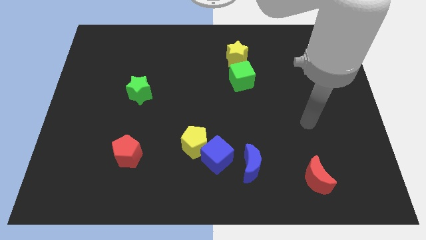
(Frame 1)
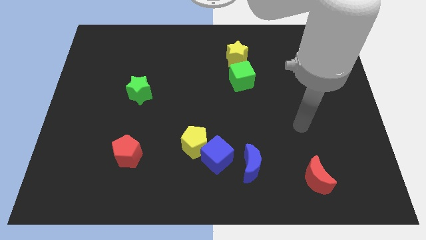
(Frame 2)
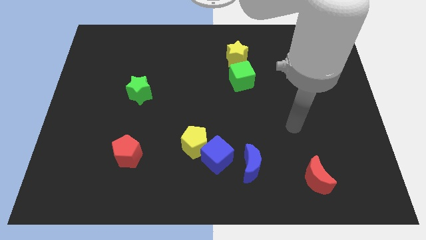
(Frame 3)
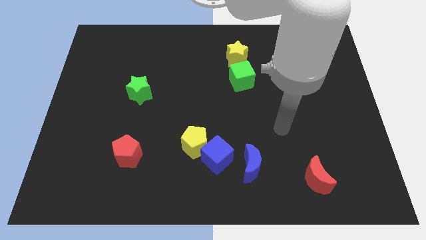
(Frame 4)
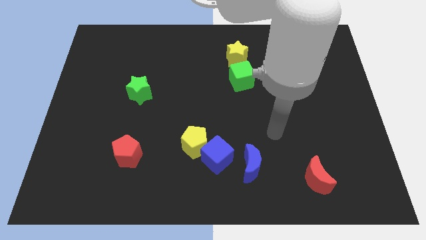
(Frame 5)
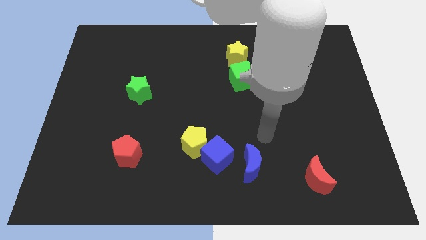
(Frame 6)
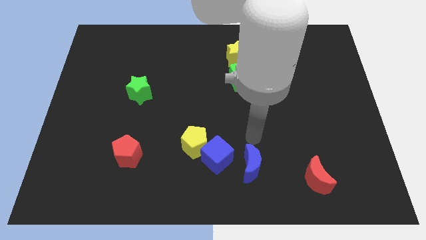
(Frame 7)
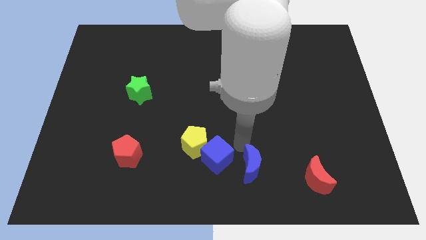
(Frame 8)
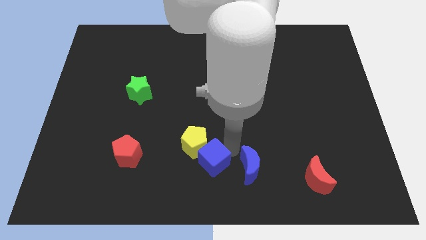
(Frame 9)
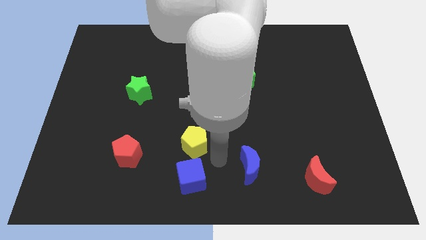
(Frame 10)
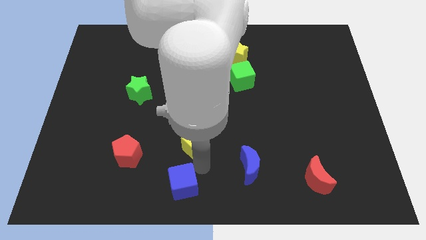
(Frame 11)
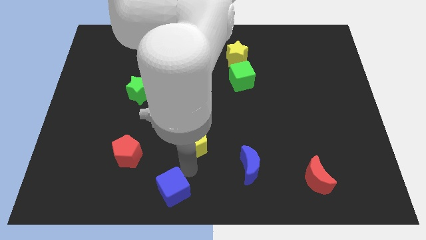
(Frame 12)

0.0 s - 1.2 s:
move the yellow pentagon away from the blue cube

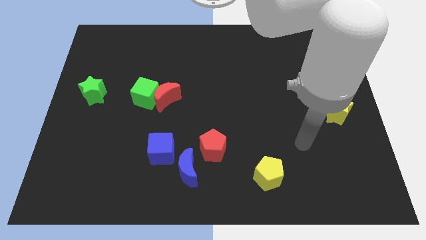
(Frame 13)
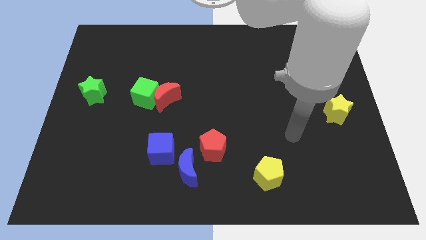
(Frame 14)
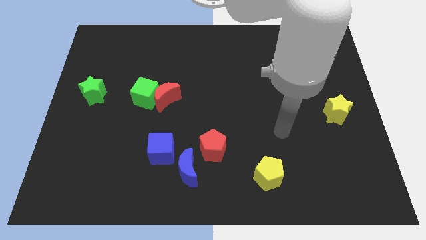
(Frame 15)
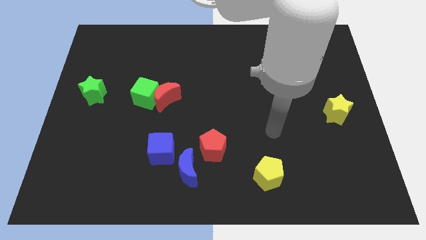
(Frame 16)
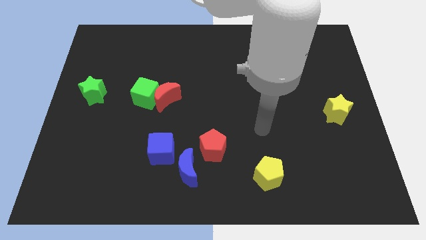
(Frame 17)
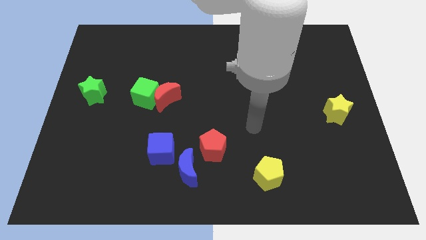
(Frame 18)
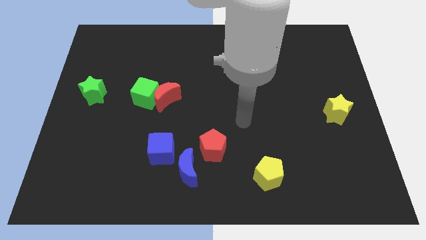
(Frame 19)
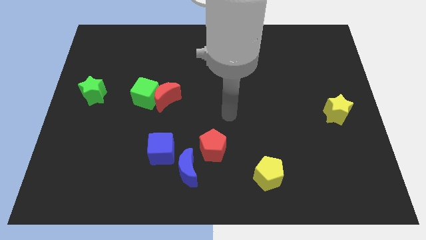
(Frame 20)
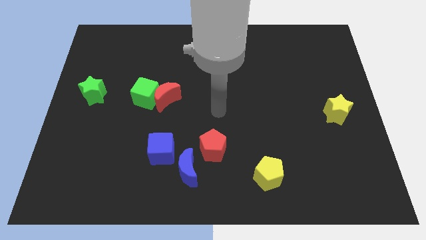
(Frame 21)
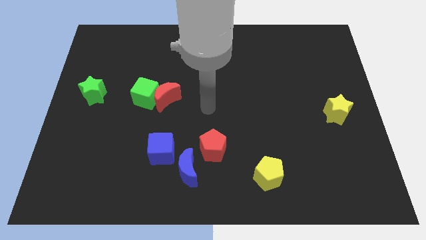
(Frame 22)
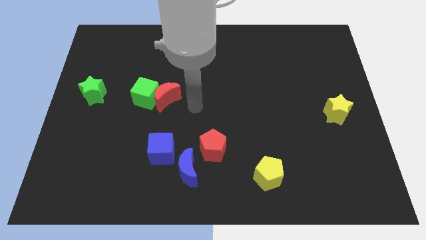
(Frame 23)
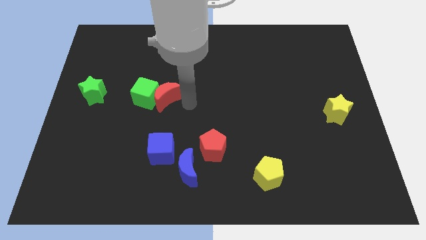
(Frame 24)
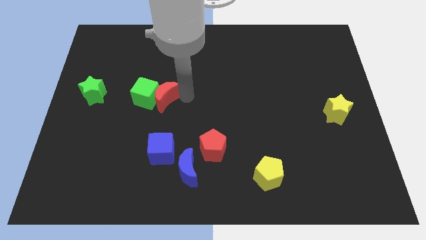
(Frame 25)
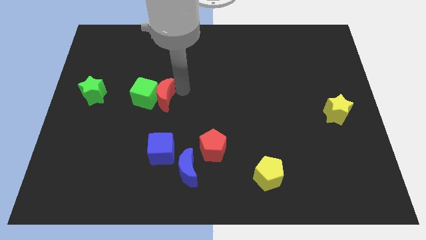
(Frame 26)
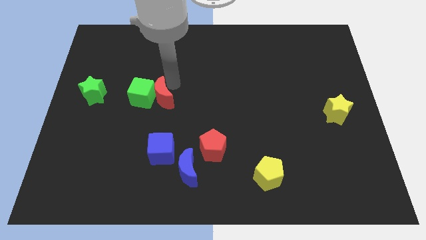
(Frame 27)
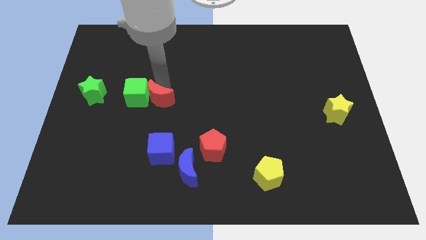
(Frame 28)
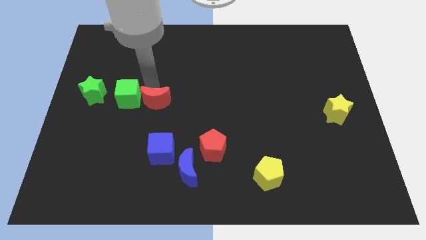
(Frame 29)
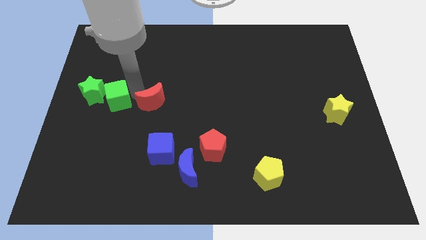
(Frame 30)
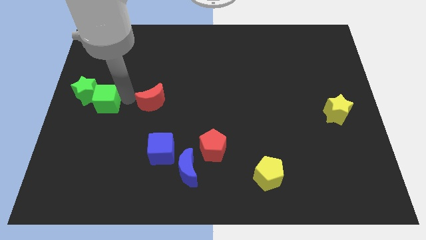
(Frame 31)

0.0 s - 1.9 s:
move the red moon away from the green cube

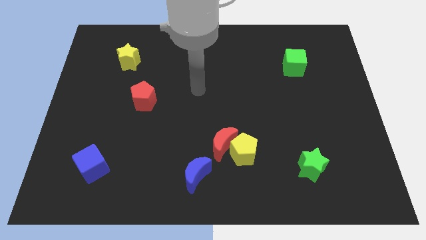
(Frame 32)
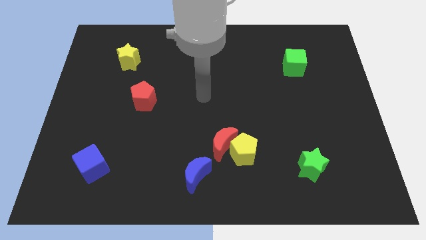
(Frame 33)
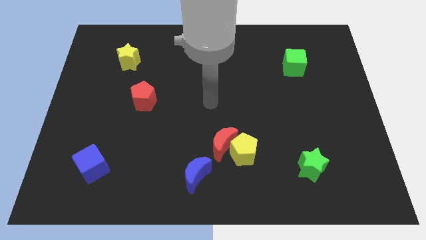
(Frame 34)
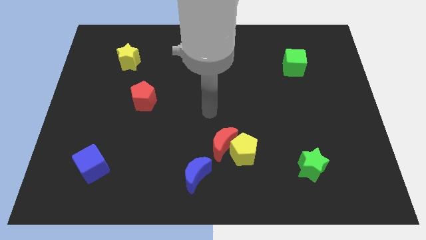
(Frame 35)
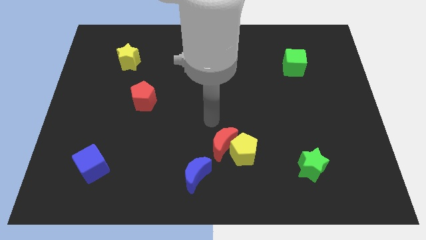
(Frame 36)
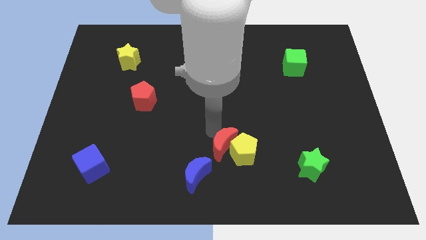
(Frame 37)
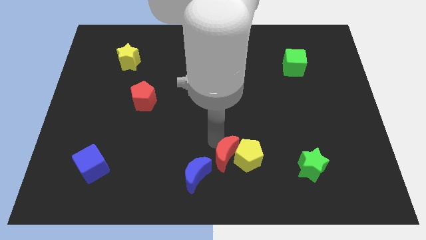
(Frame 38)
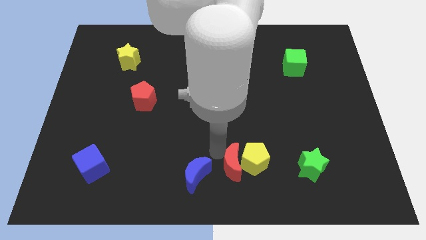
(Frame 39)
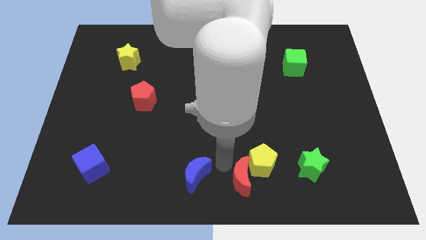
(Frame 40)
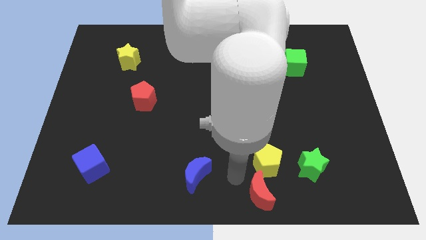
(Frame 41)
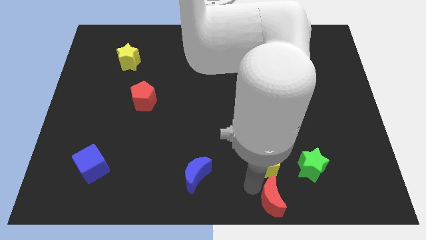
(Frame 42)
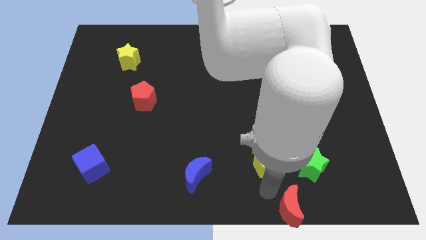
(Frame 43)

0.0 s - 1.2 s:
move the yellow pentagon away from the red moon

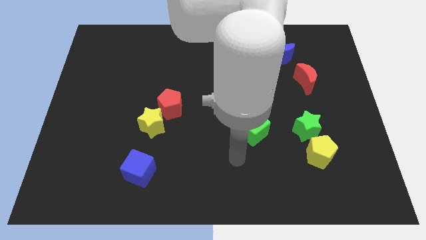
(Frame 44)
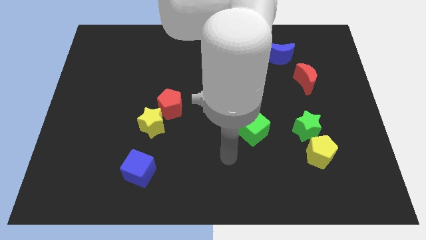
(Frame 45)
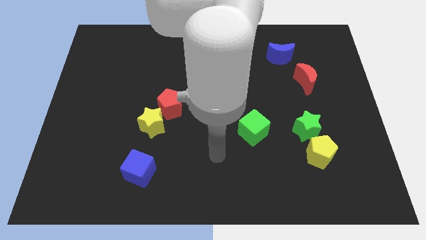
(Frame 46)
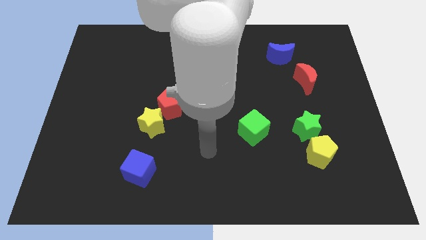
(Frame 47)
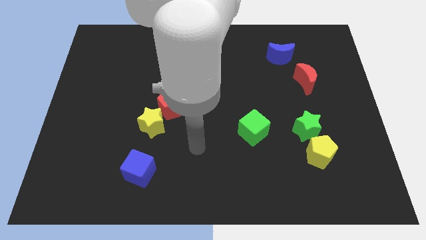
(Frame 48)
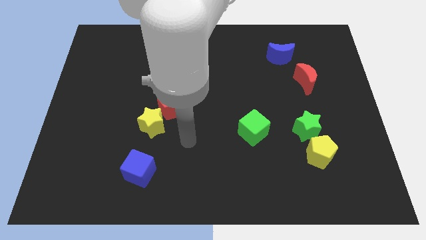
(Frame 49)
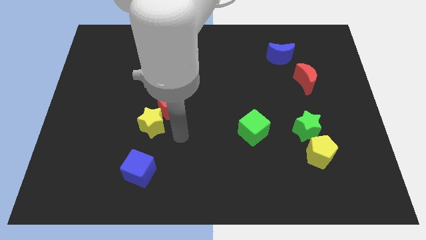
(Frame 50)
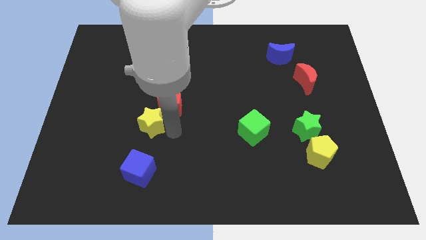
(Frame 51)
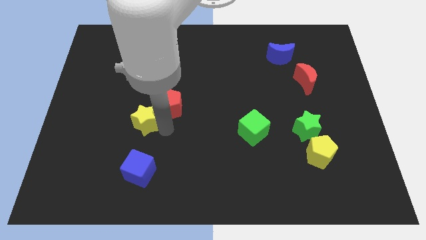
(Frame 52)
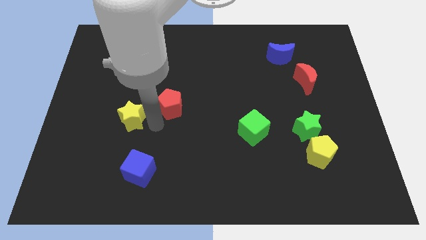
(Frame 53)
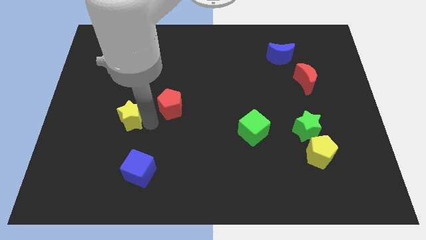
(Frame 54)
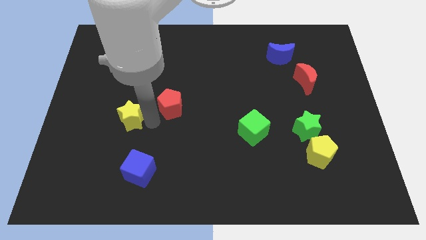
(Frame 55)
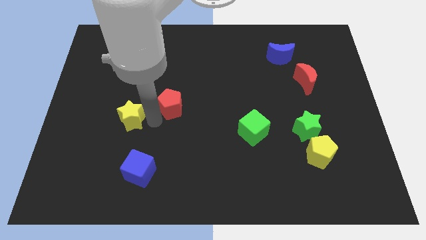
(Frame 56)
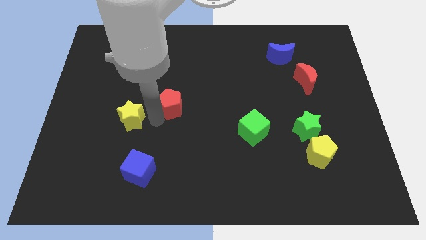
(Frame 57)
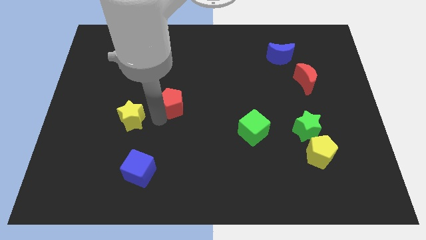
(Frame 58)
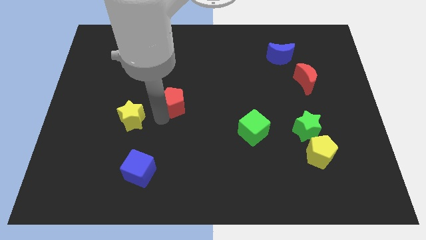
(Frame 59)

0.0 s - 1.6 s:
separate the red pentagon from the yellow star

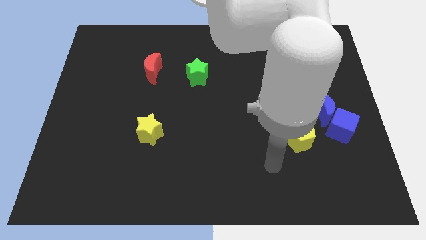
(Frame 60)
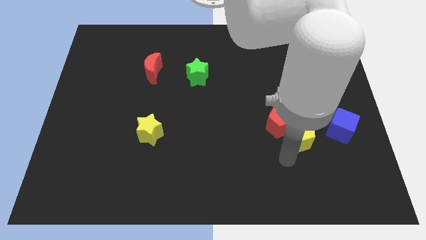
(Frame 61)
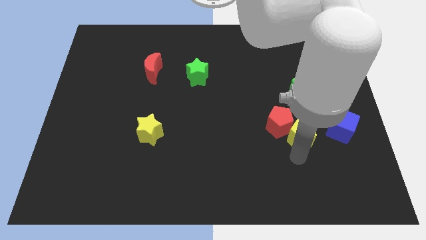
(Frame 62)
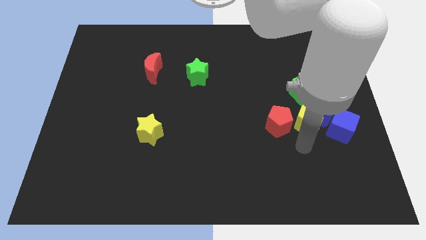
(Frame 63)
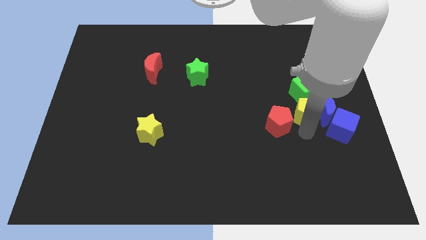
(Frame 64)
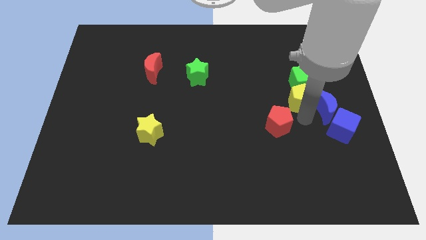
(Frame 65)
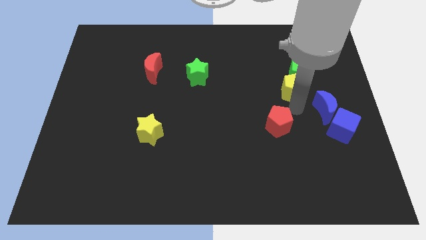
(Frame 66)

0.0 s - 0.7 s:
move the red pentagon away from the yellow pentagon

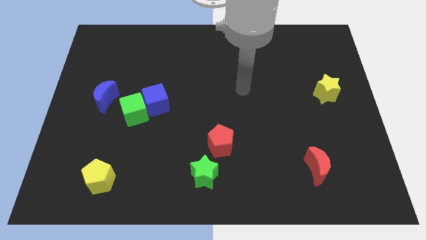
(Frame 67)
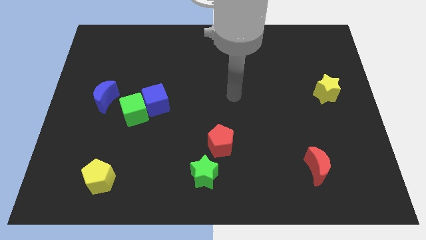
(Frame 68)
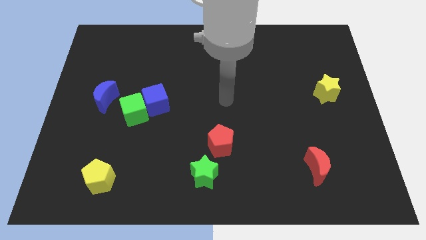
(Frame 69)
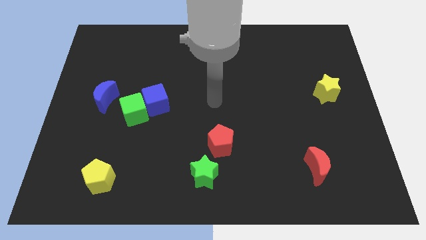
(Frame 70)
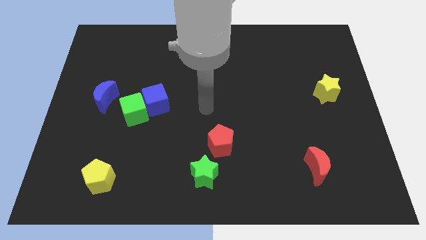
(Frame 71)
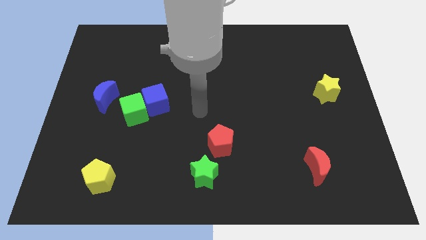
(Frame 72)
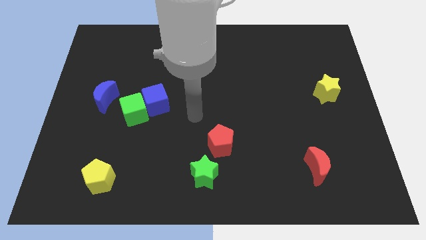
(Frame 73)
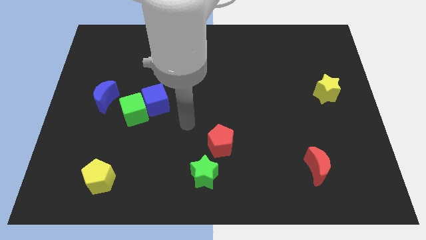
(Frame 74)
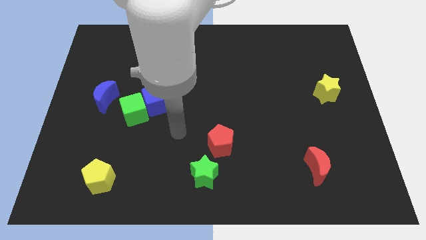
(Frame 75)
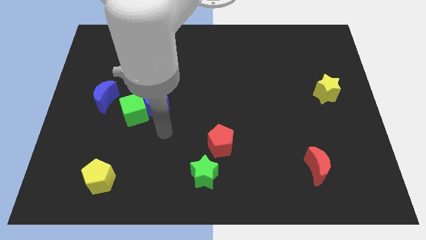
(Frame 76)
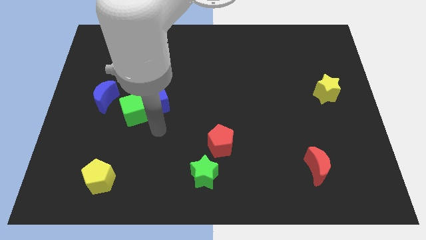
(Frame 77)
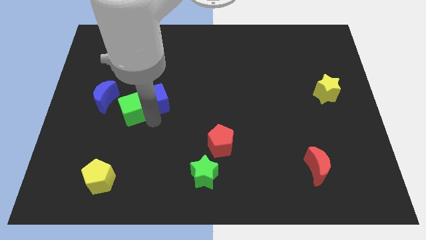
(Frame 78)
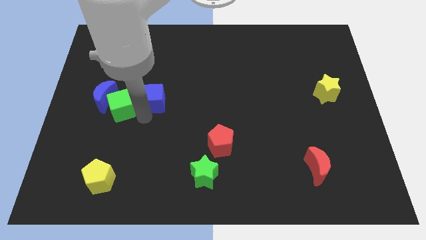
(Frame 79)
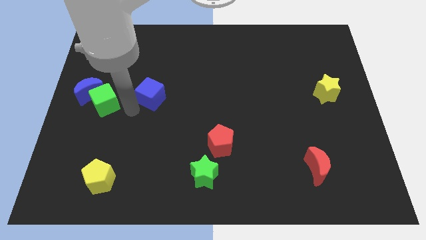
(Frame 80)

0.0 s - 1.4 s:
move the blue cube away from the green cube

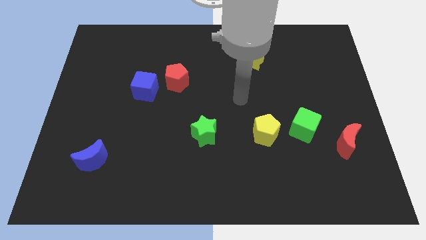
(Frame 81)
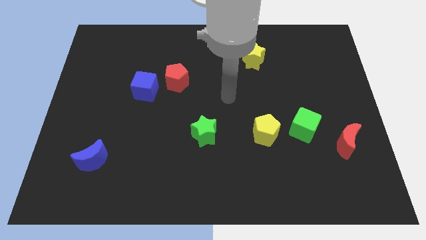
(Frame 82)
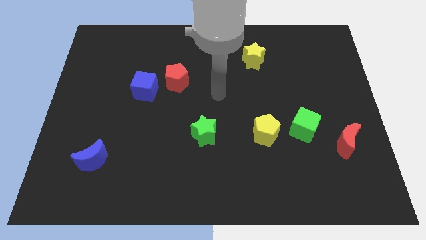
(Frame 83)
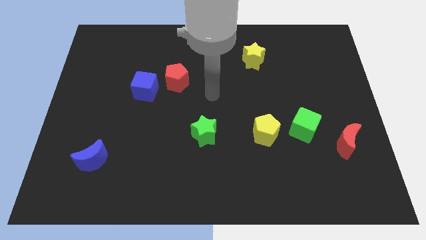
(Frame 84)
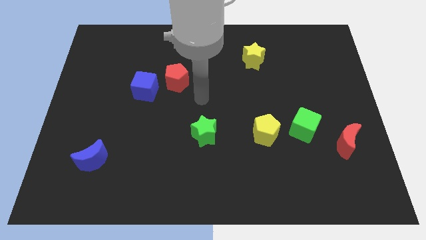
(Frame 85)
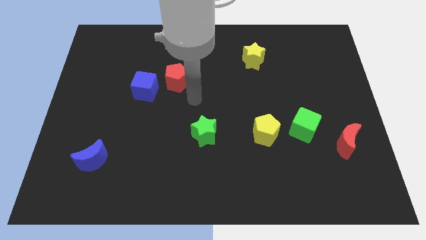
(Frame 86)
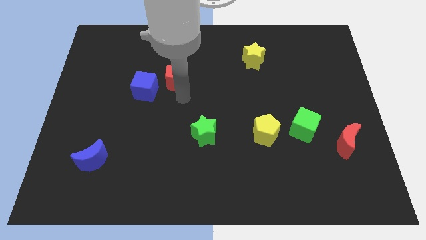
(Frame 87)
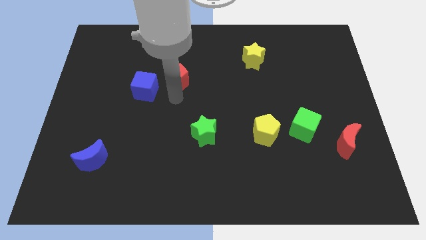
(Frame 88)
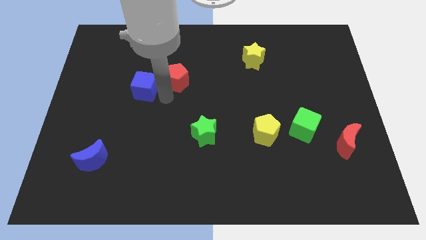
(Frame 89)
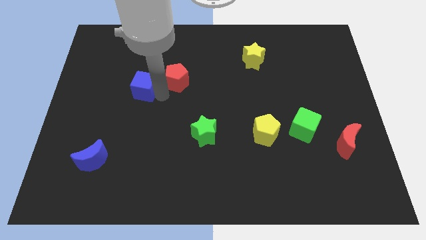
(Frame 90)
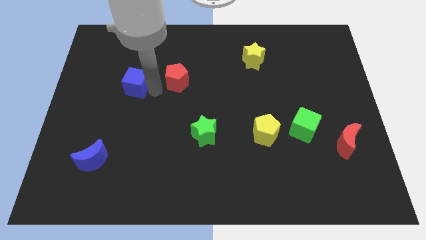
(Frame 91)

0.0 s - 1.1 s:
move the red pentagon away from the blue cube

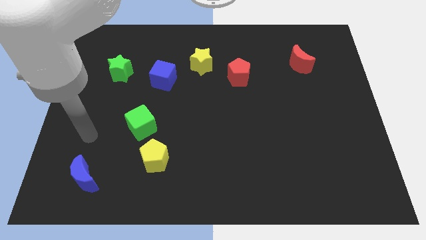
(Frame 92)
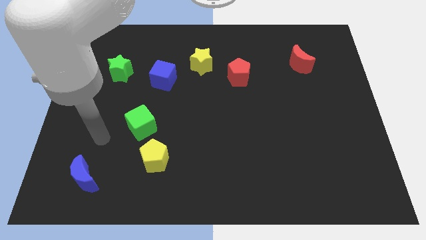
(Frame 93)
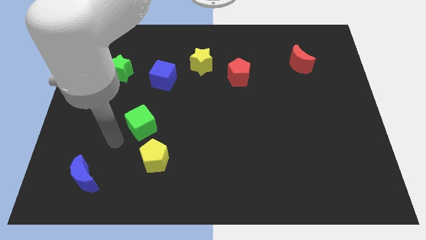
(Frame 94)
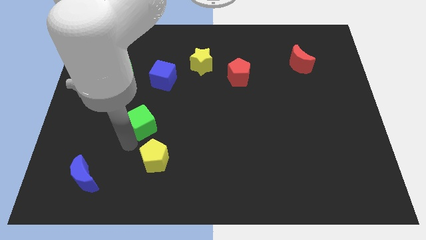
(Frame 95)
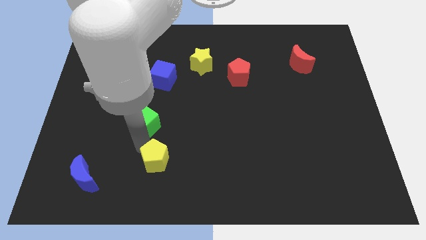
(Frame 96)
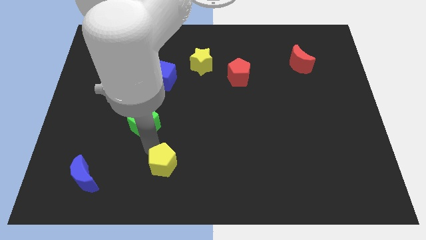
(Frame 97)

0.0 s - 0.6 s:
separate the green cube from the yellow pentagon
